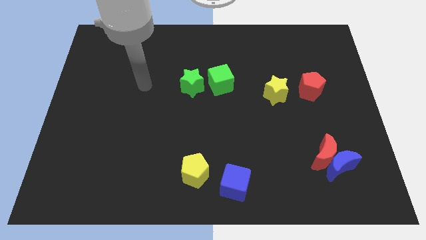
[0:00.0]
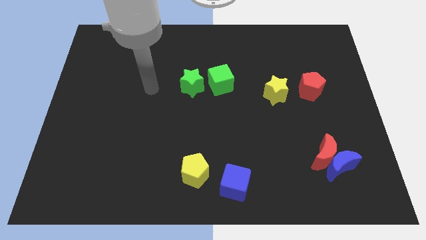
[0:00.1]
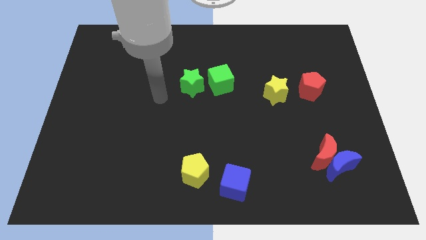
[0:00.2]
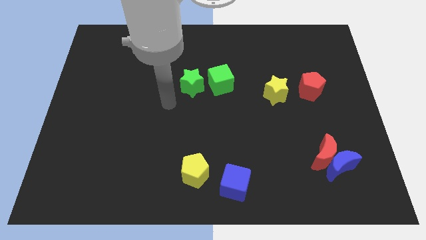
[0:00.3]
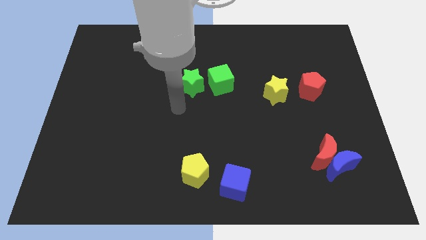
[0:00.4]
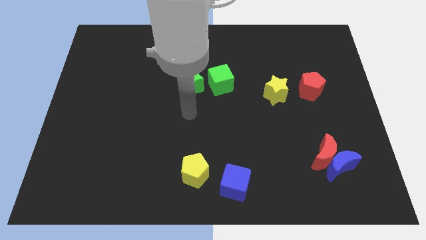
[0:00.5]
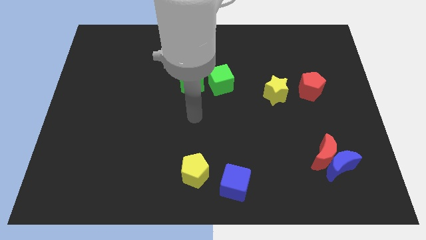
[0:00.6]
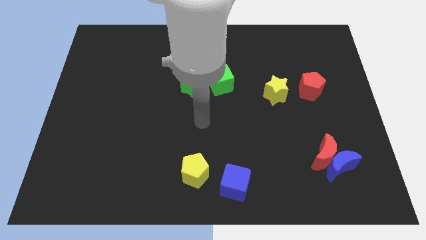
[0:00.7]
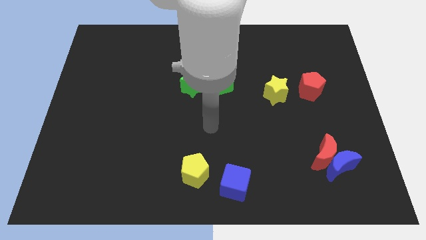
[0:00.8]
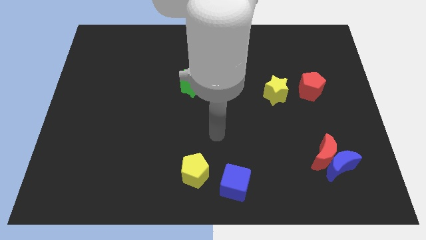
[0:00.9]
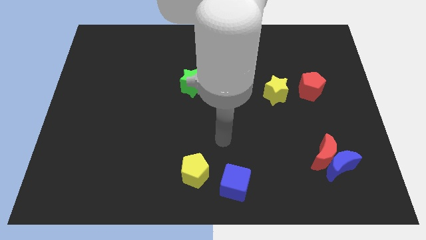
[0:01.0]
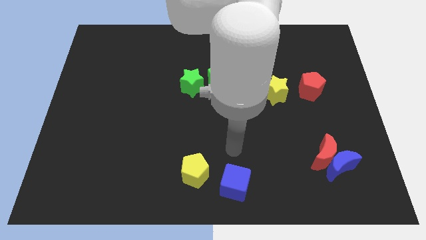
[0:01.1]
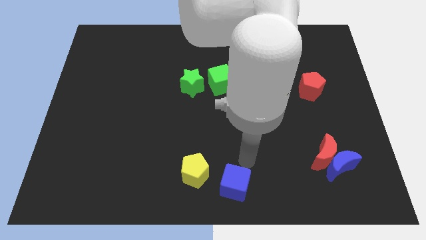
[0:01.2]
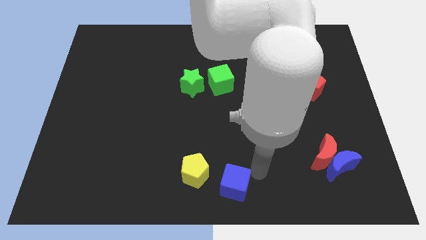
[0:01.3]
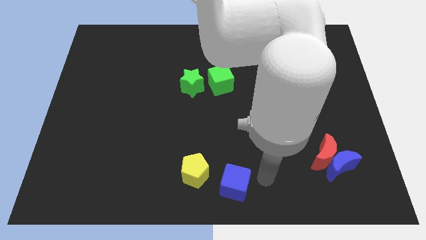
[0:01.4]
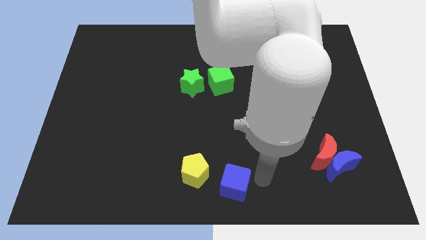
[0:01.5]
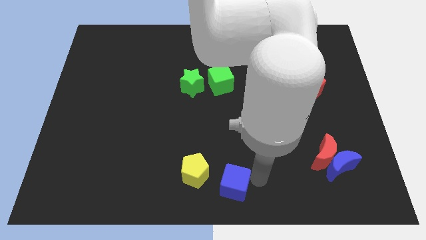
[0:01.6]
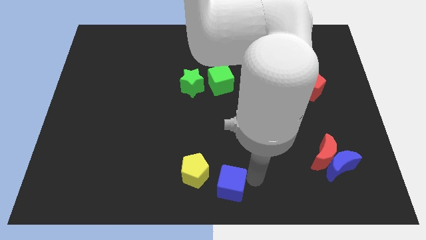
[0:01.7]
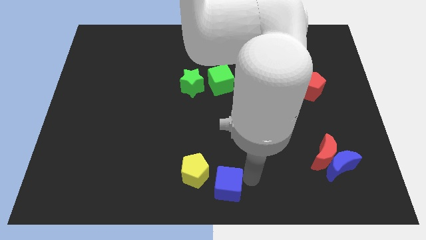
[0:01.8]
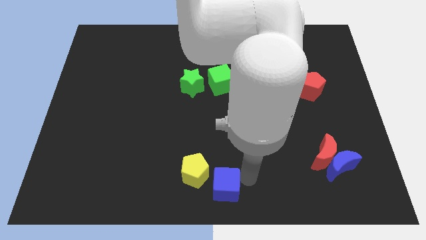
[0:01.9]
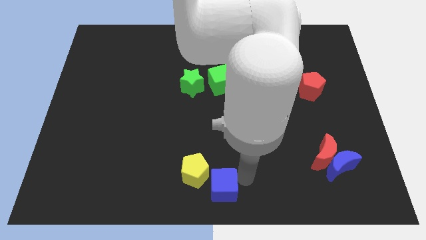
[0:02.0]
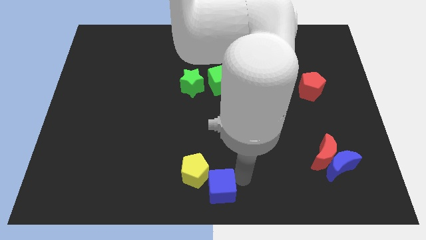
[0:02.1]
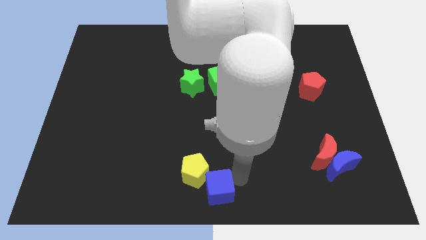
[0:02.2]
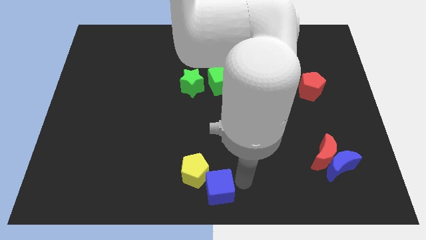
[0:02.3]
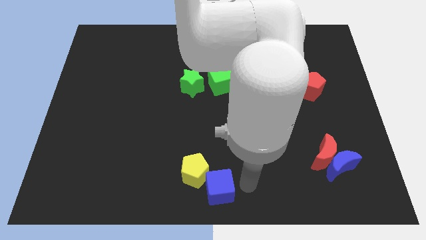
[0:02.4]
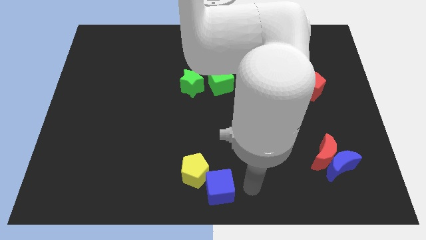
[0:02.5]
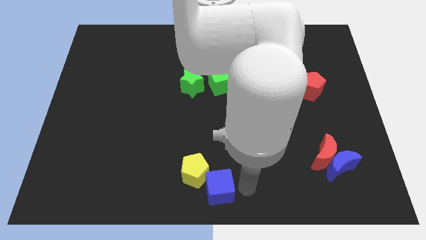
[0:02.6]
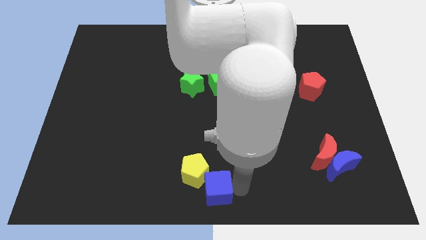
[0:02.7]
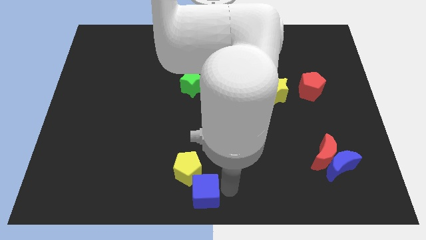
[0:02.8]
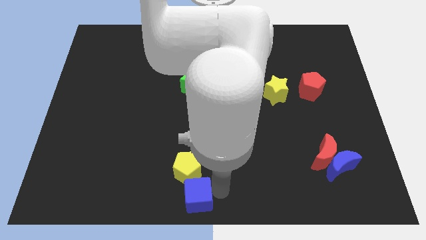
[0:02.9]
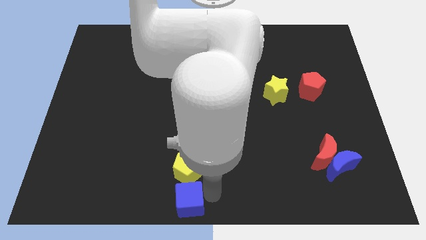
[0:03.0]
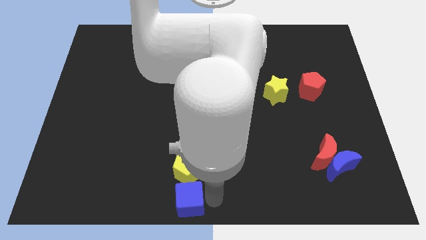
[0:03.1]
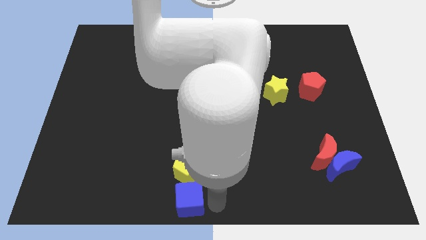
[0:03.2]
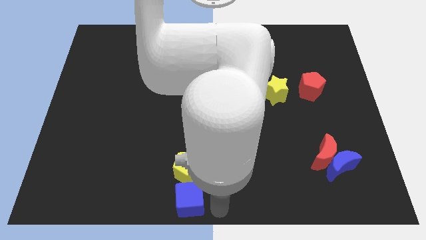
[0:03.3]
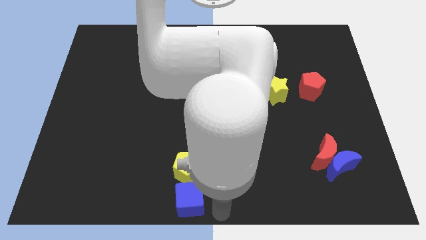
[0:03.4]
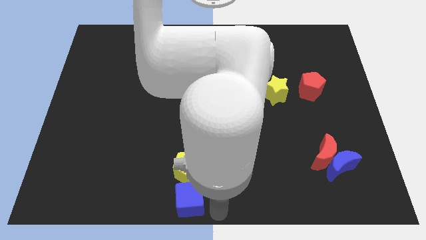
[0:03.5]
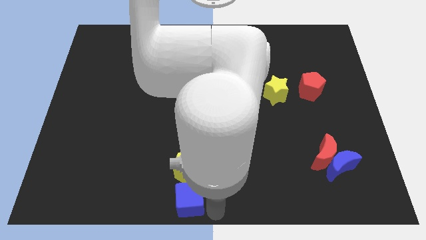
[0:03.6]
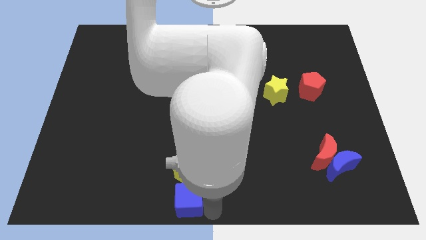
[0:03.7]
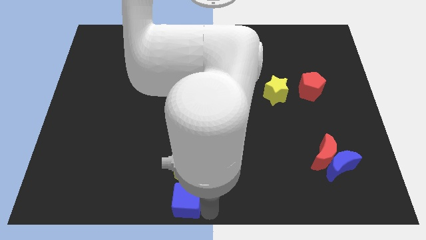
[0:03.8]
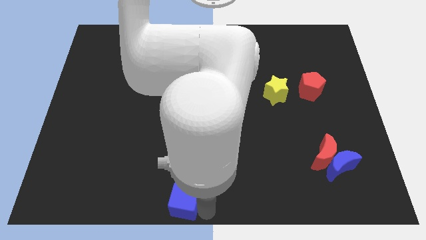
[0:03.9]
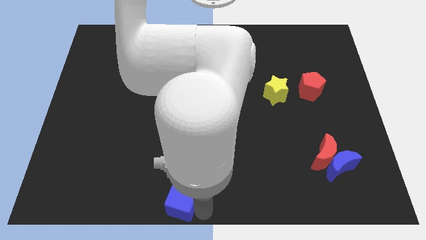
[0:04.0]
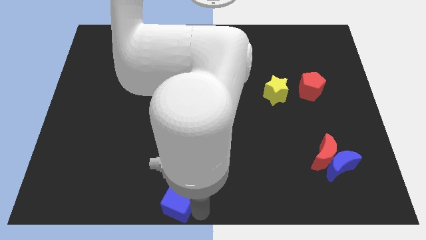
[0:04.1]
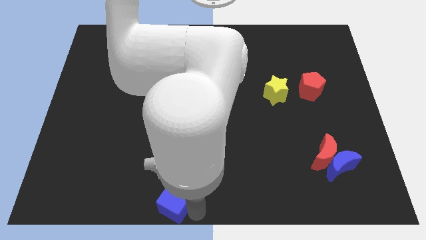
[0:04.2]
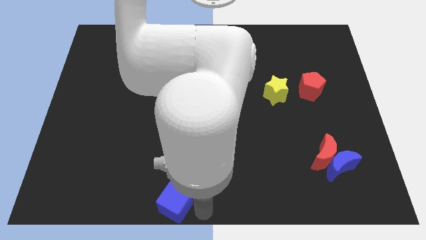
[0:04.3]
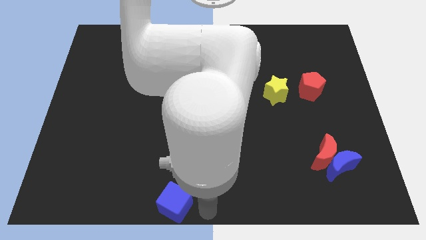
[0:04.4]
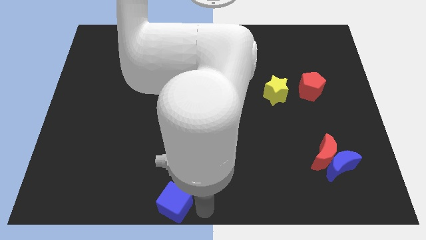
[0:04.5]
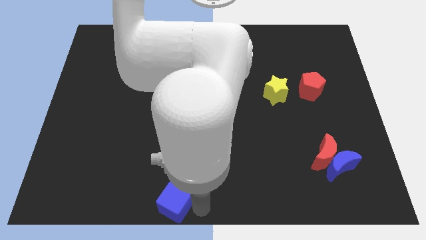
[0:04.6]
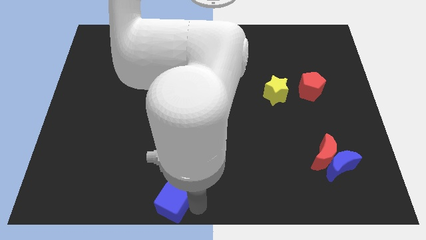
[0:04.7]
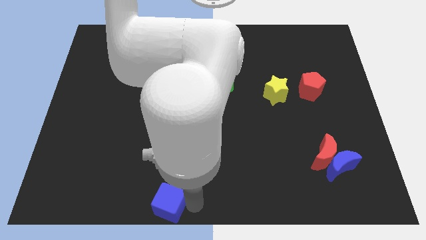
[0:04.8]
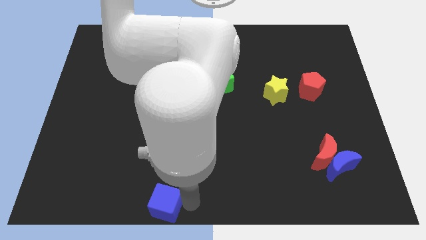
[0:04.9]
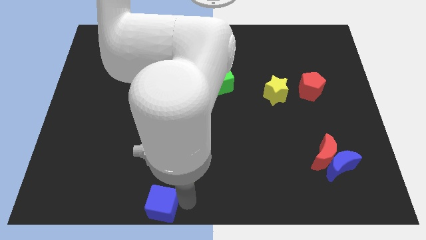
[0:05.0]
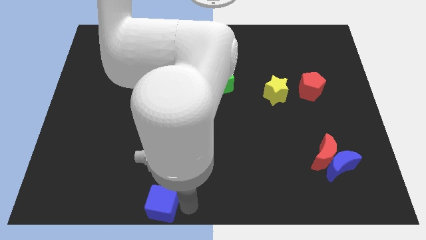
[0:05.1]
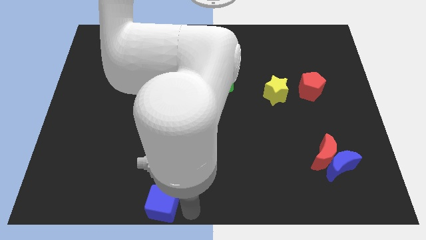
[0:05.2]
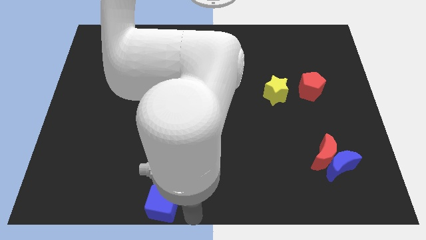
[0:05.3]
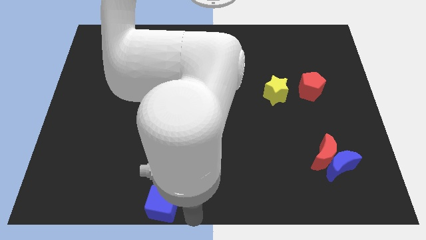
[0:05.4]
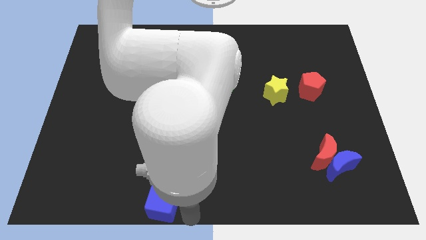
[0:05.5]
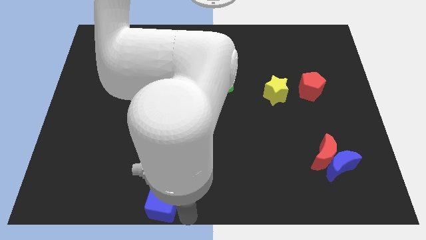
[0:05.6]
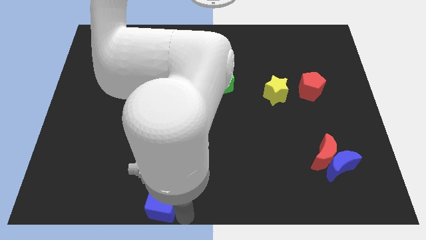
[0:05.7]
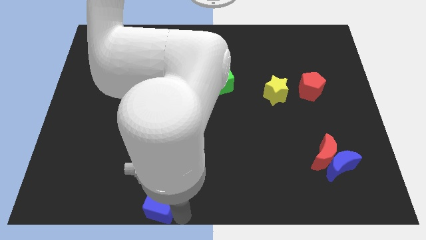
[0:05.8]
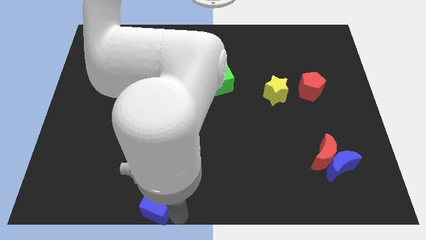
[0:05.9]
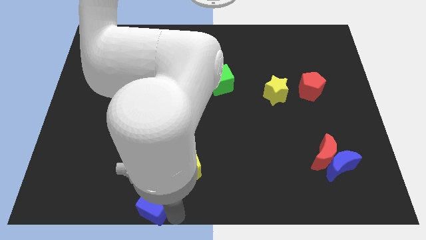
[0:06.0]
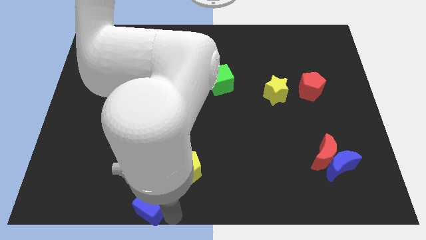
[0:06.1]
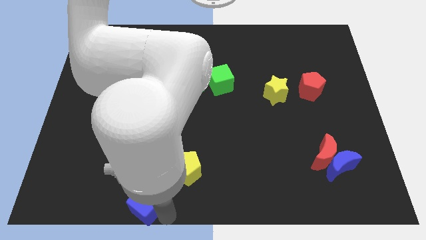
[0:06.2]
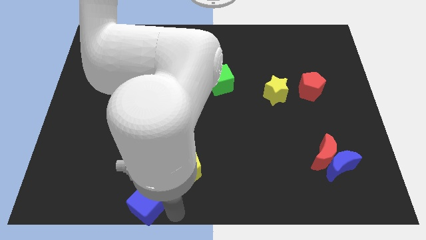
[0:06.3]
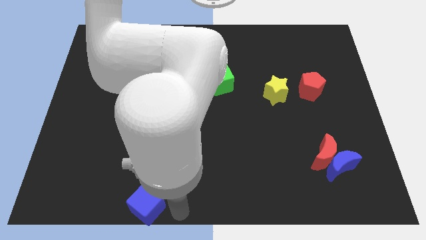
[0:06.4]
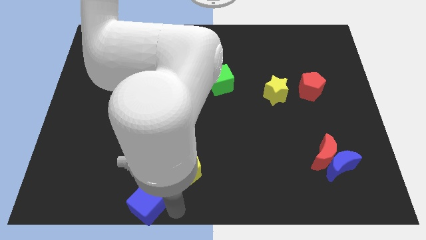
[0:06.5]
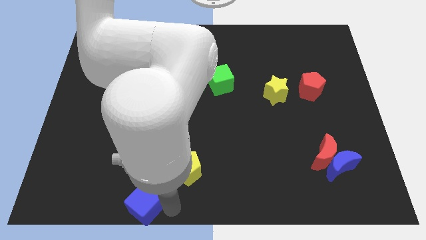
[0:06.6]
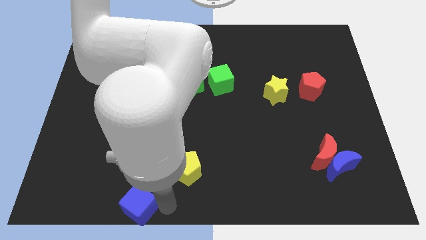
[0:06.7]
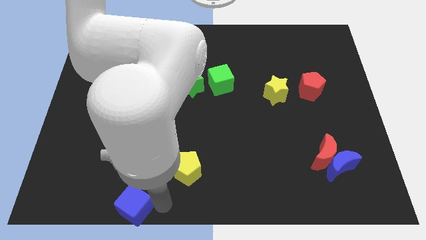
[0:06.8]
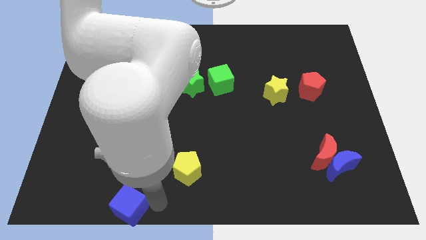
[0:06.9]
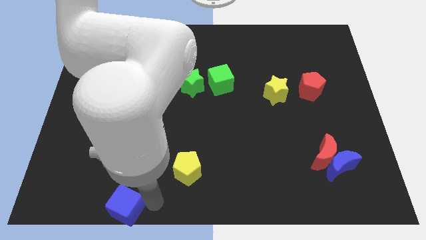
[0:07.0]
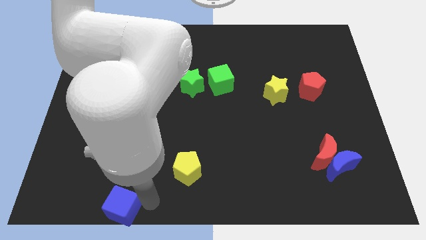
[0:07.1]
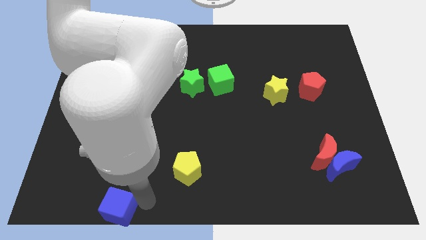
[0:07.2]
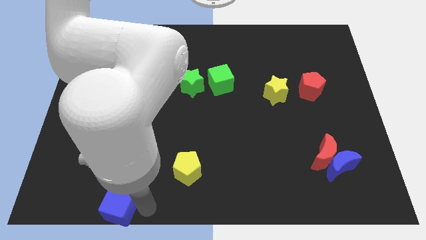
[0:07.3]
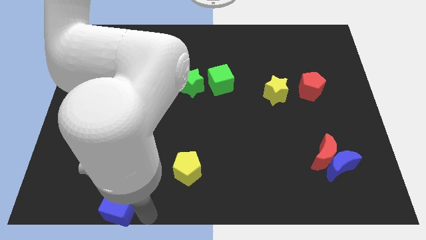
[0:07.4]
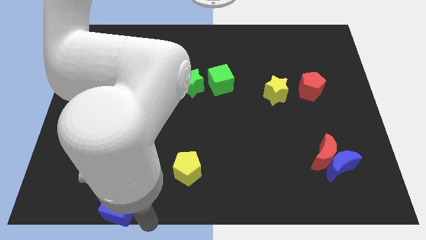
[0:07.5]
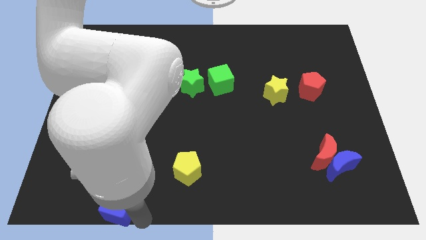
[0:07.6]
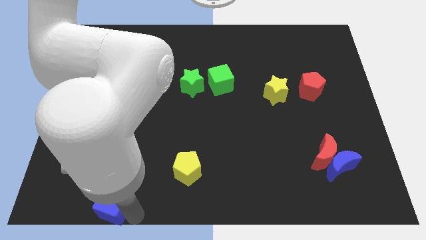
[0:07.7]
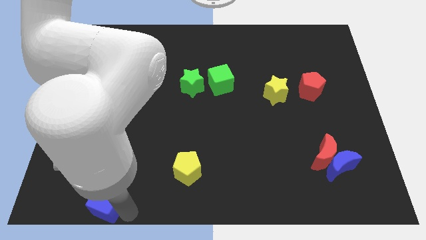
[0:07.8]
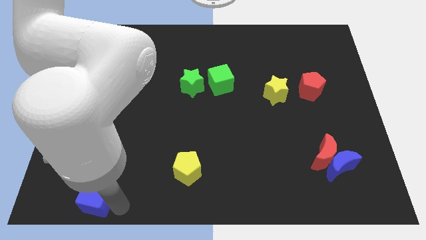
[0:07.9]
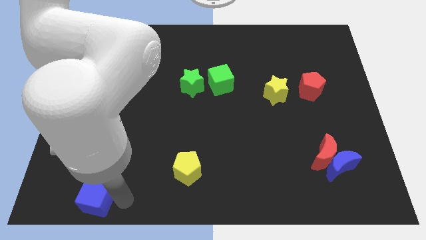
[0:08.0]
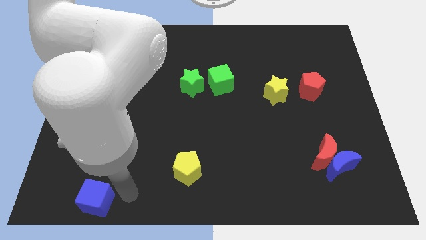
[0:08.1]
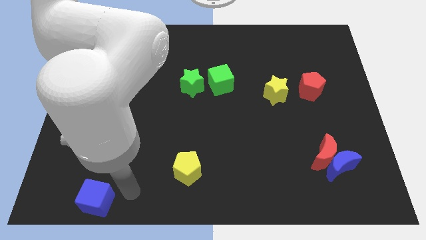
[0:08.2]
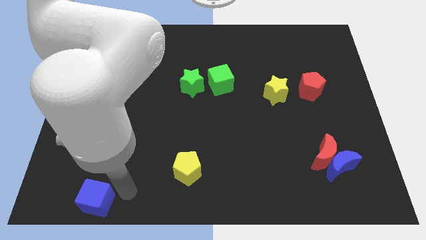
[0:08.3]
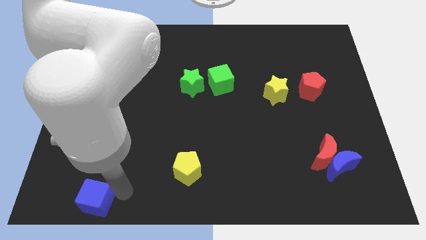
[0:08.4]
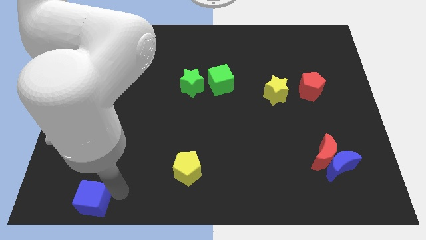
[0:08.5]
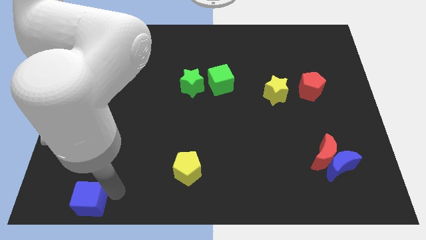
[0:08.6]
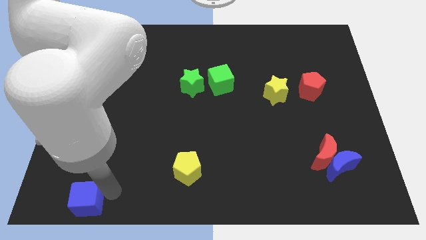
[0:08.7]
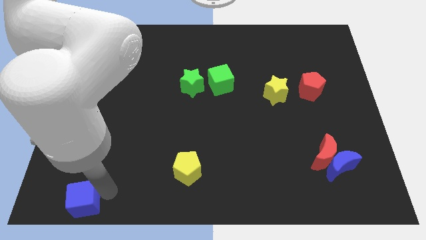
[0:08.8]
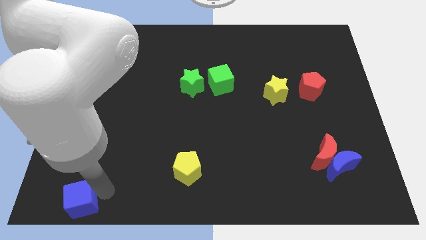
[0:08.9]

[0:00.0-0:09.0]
put the blue cube to the lower left corner
